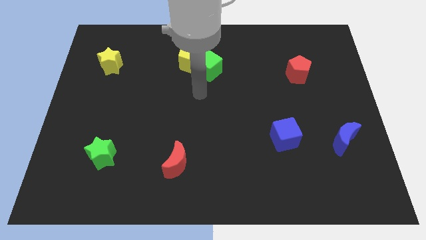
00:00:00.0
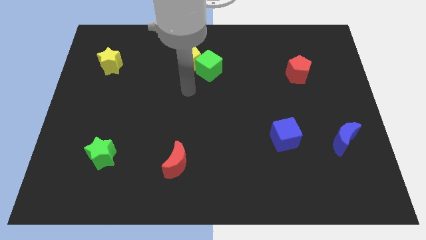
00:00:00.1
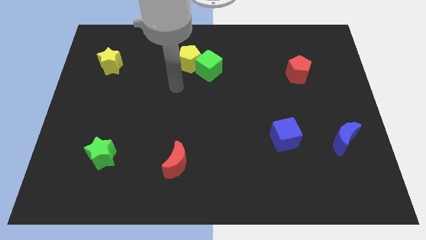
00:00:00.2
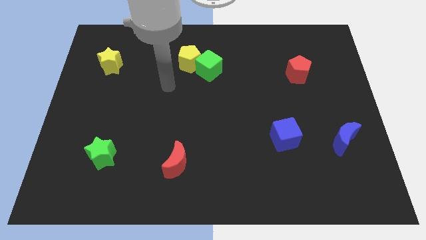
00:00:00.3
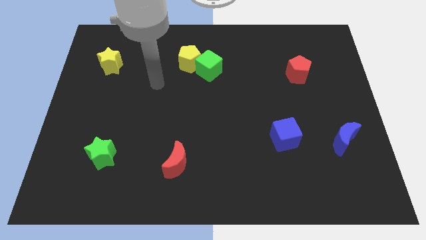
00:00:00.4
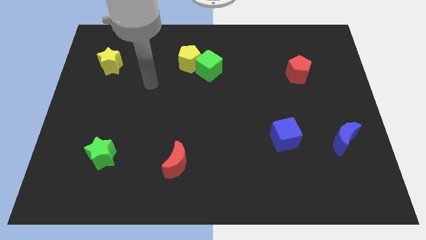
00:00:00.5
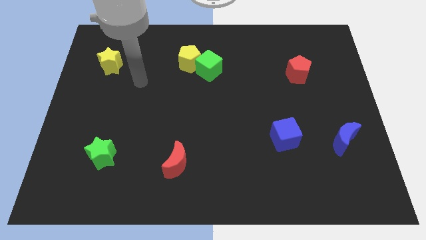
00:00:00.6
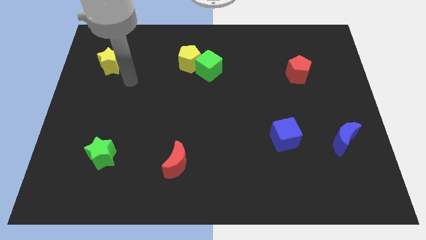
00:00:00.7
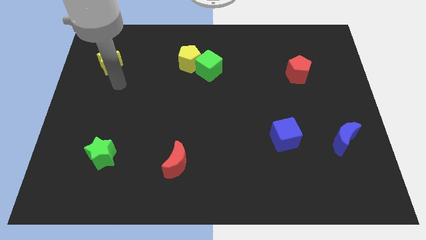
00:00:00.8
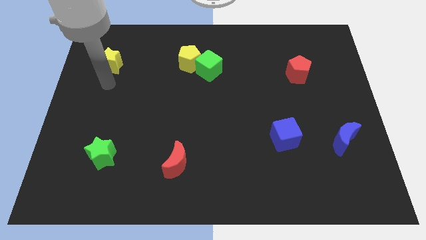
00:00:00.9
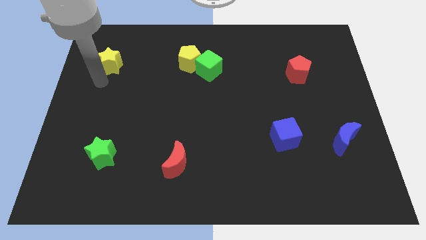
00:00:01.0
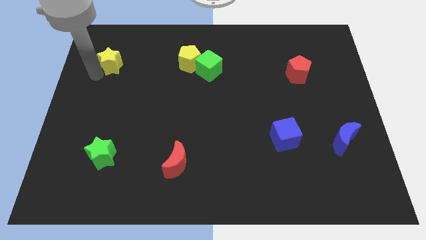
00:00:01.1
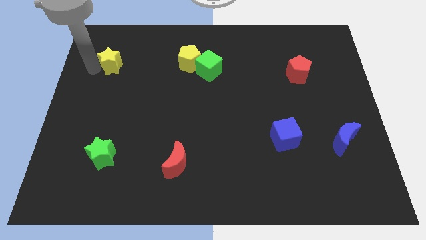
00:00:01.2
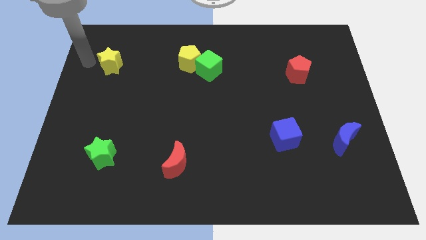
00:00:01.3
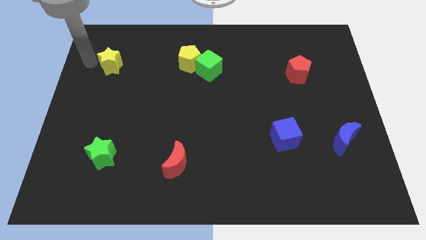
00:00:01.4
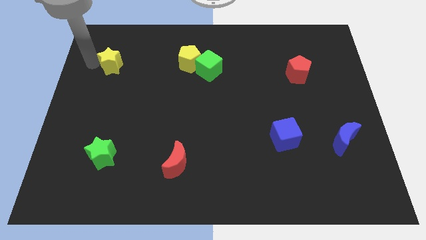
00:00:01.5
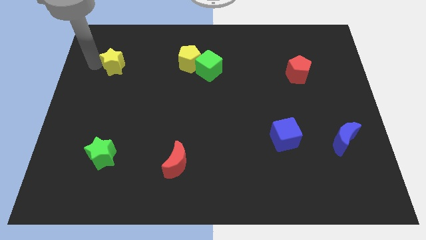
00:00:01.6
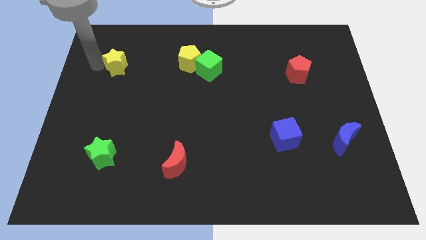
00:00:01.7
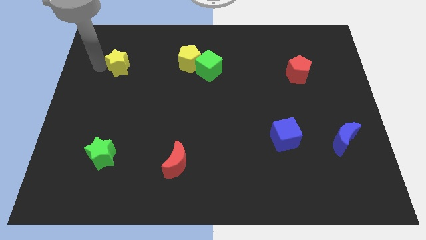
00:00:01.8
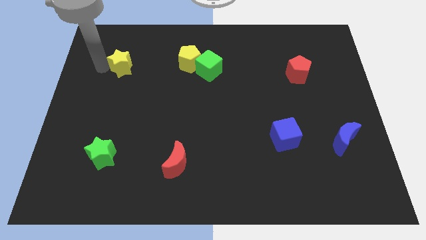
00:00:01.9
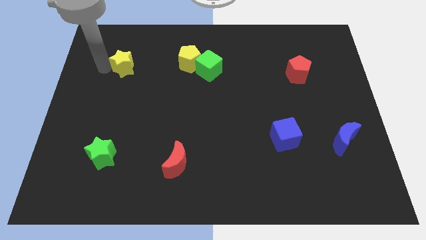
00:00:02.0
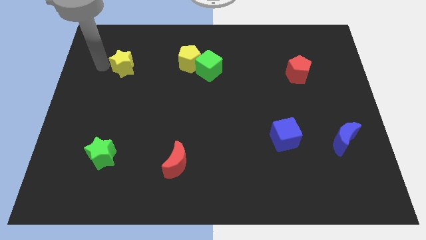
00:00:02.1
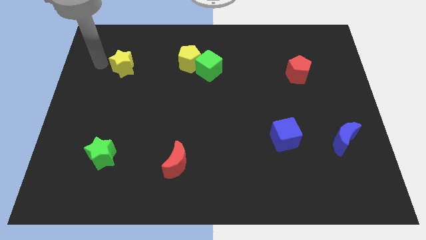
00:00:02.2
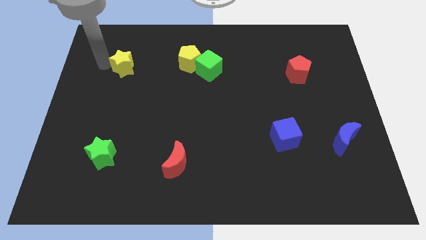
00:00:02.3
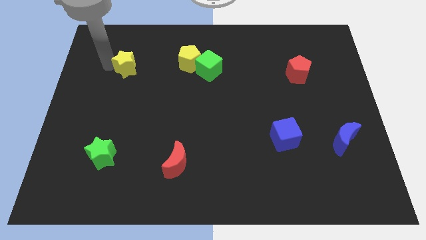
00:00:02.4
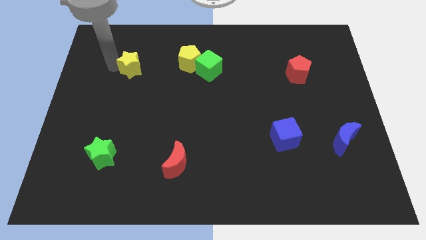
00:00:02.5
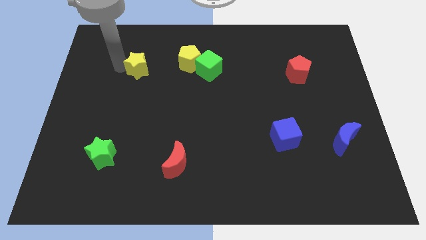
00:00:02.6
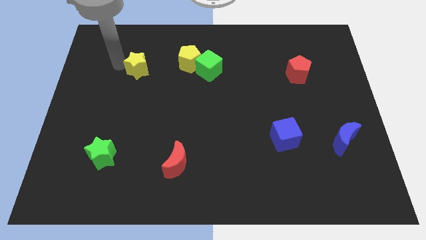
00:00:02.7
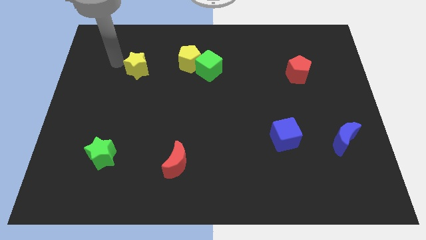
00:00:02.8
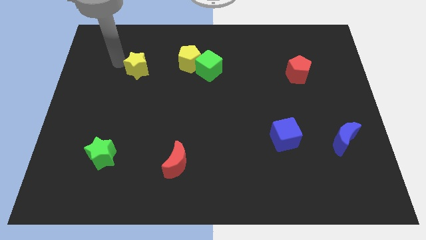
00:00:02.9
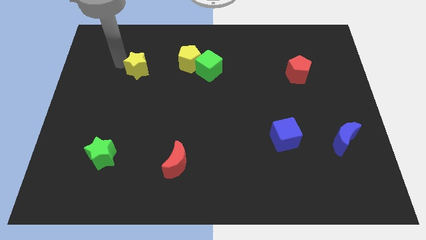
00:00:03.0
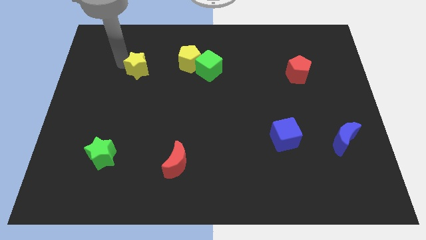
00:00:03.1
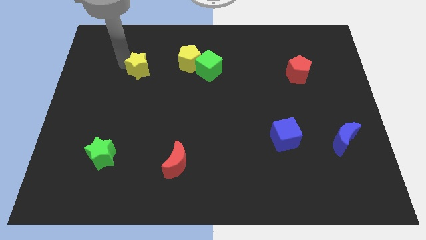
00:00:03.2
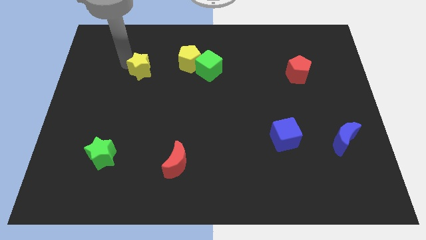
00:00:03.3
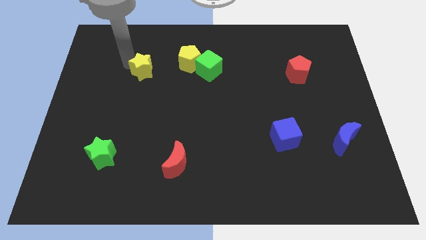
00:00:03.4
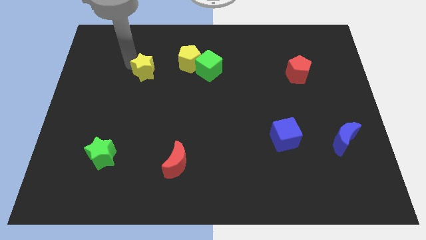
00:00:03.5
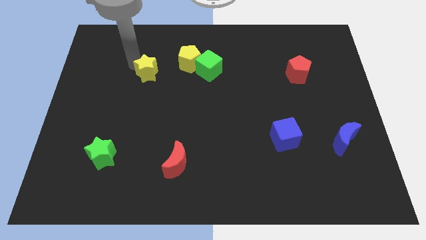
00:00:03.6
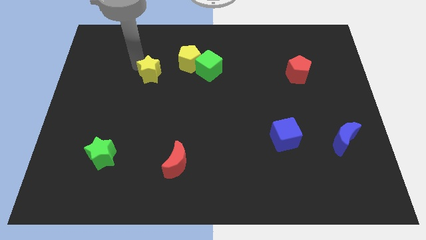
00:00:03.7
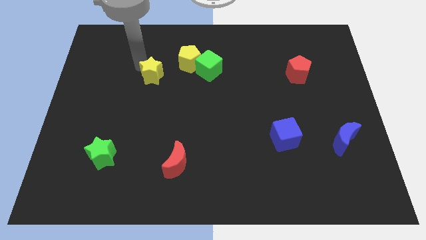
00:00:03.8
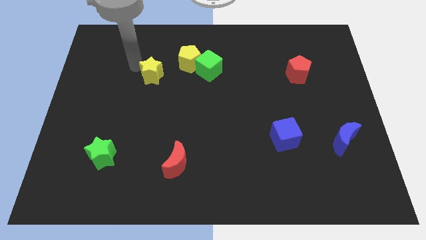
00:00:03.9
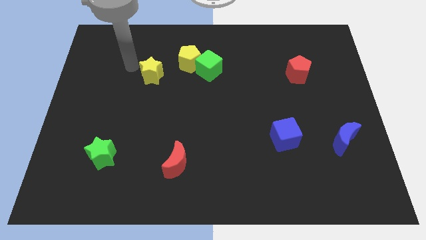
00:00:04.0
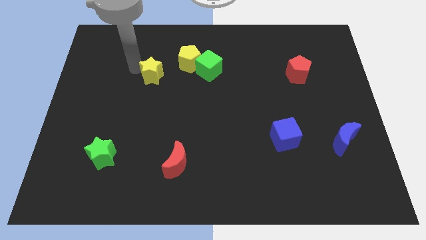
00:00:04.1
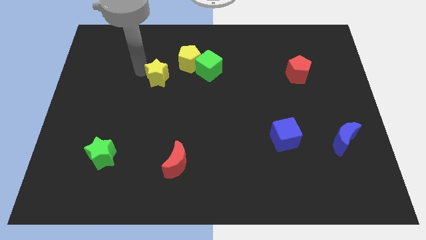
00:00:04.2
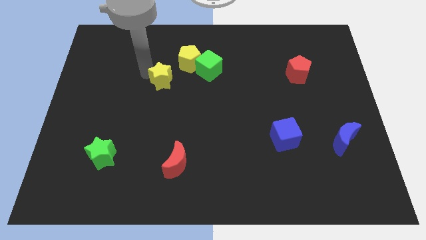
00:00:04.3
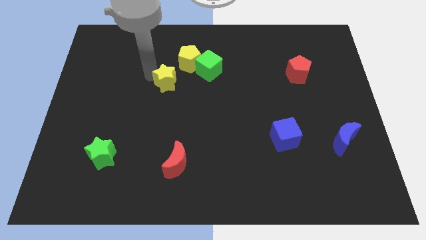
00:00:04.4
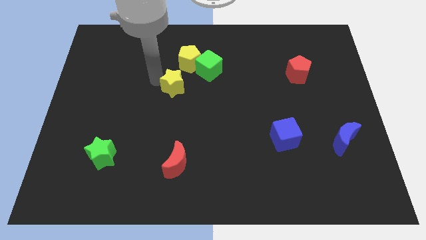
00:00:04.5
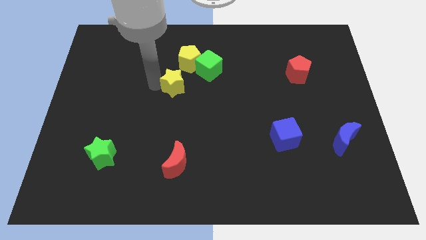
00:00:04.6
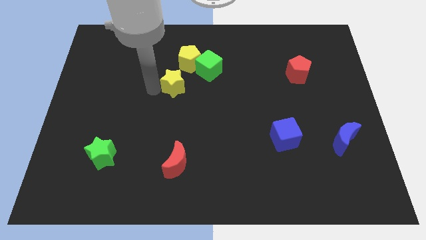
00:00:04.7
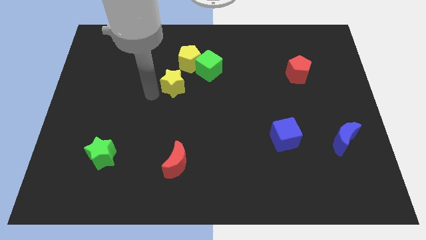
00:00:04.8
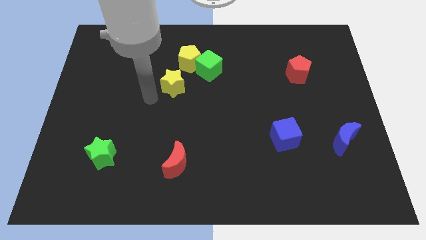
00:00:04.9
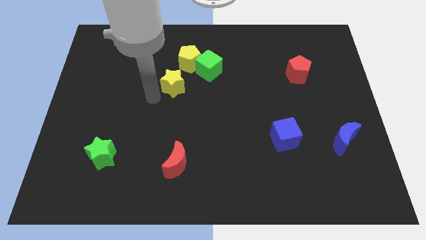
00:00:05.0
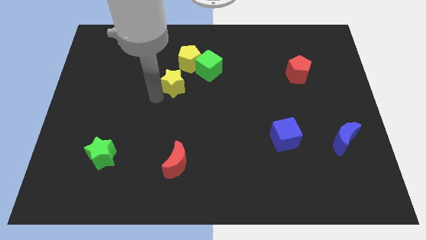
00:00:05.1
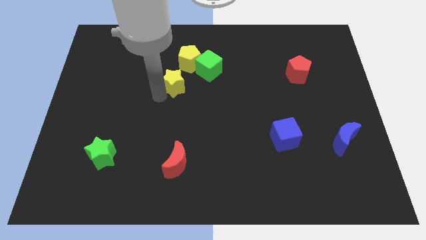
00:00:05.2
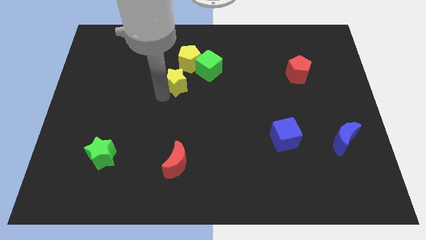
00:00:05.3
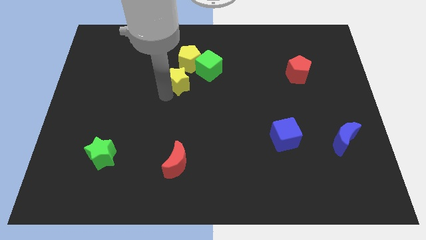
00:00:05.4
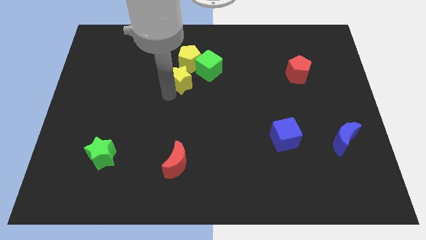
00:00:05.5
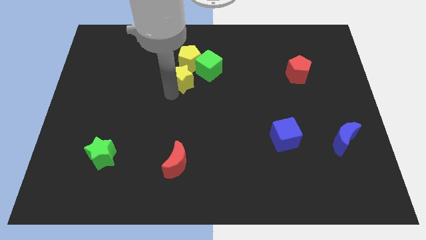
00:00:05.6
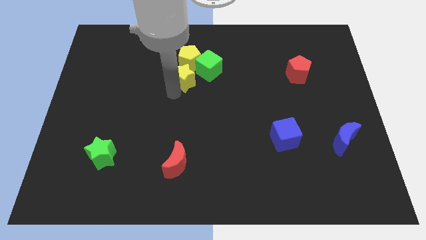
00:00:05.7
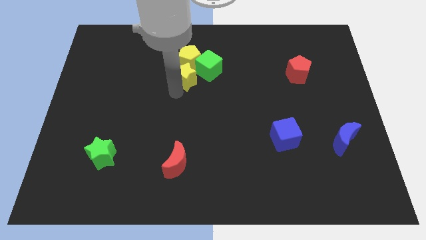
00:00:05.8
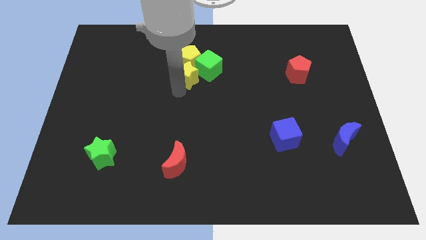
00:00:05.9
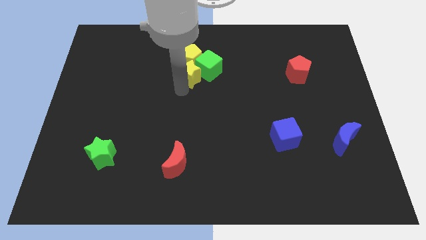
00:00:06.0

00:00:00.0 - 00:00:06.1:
push the yellow star close to the green cube

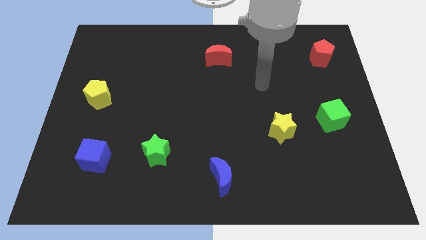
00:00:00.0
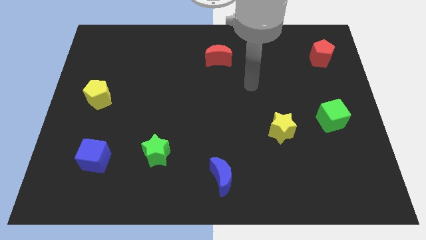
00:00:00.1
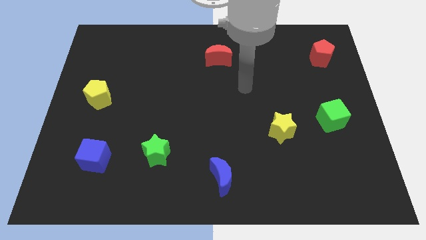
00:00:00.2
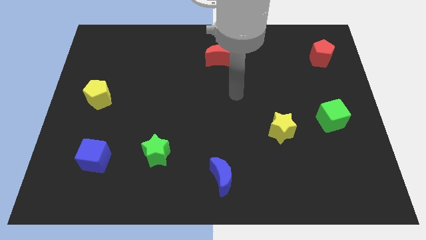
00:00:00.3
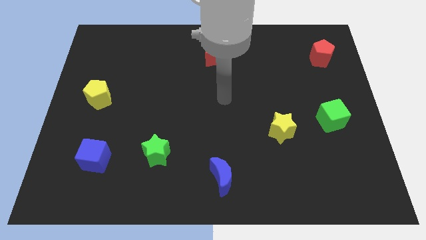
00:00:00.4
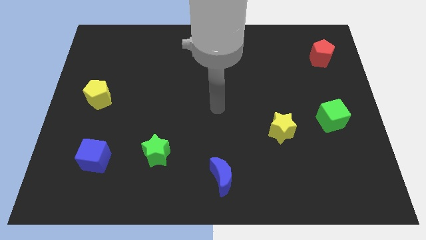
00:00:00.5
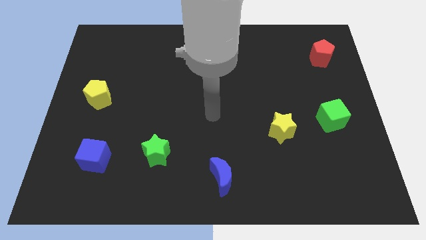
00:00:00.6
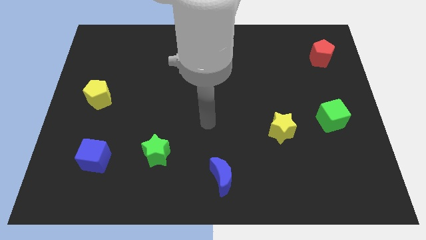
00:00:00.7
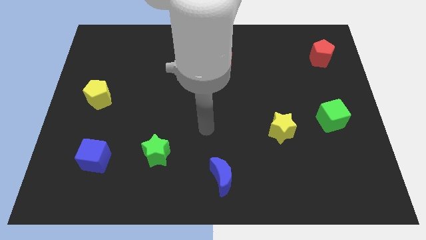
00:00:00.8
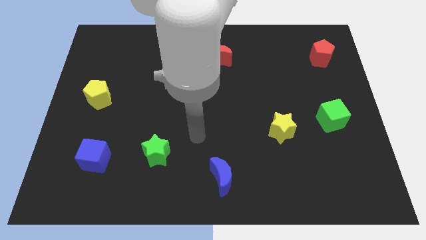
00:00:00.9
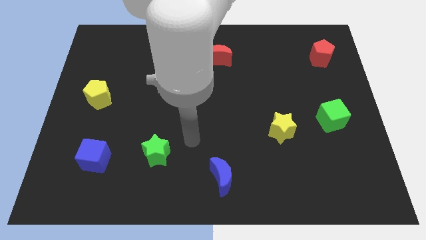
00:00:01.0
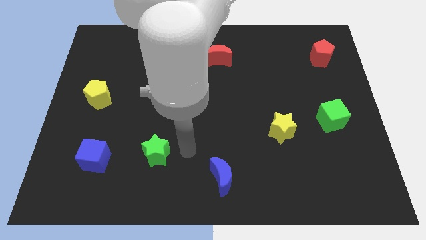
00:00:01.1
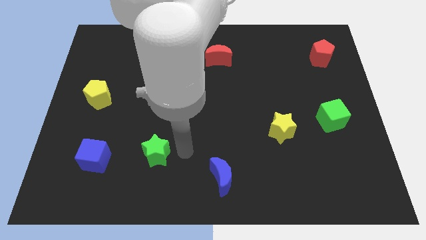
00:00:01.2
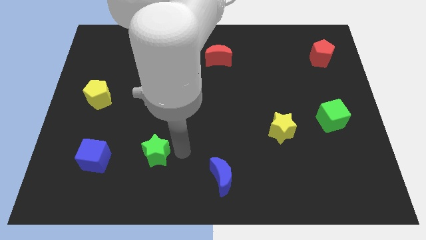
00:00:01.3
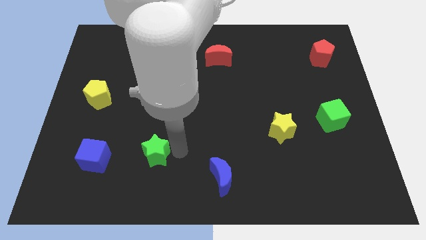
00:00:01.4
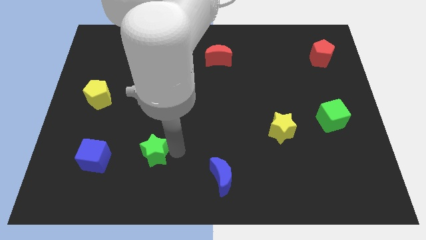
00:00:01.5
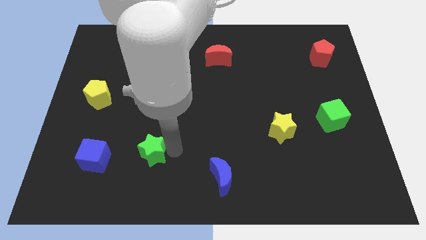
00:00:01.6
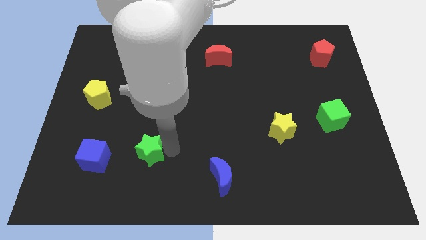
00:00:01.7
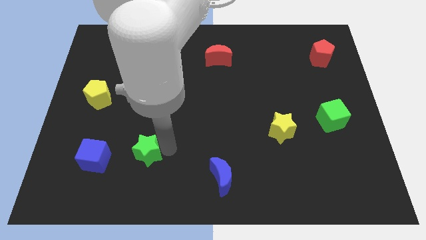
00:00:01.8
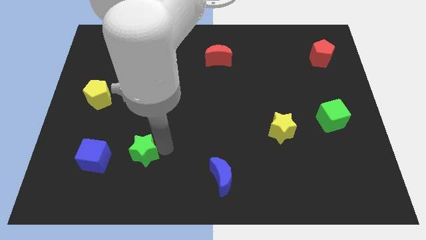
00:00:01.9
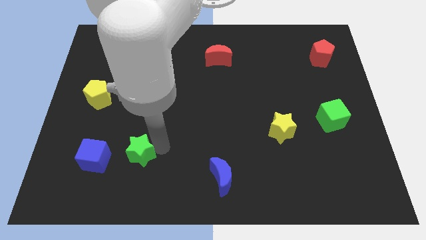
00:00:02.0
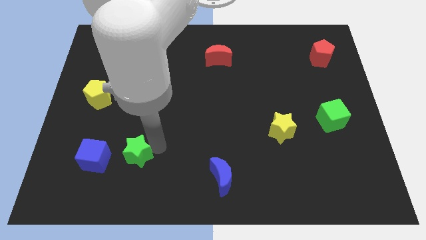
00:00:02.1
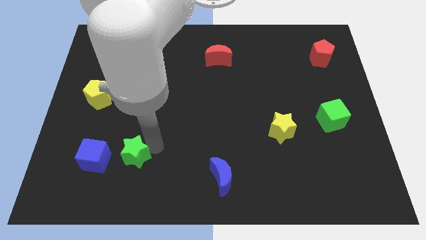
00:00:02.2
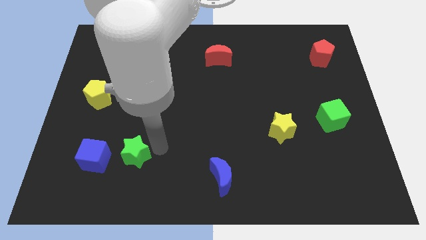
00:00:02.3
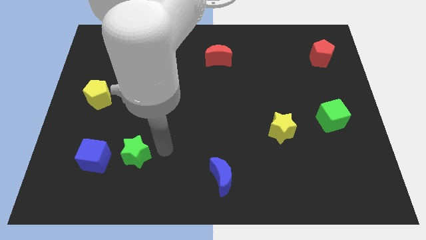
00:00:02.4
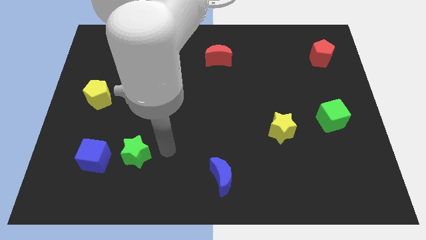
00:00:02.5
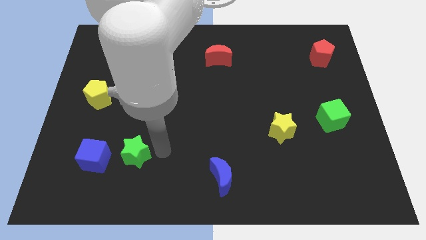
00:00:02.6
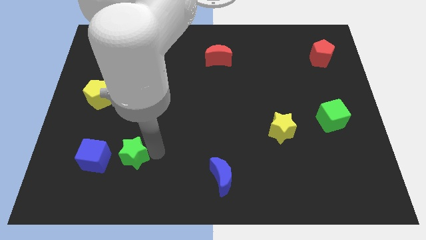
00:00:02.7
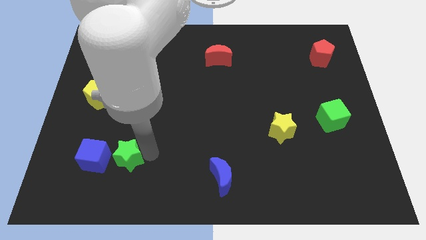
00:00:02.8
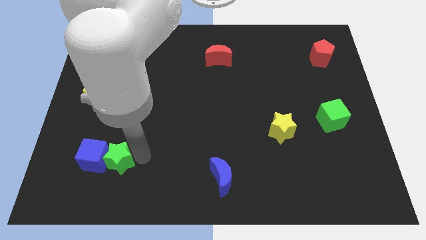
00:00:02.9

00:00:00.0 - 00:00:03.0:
slide the green star towards the blue cube
